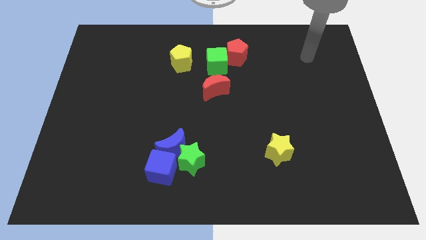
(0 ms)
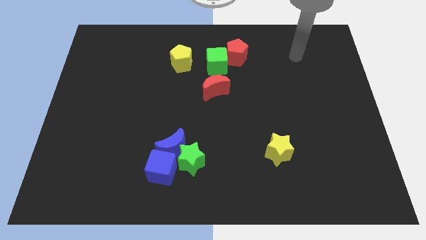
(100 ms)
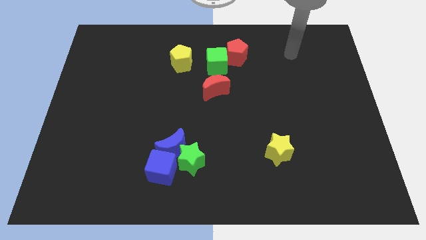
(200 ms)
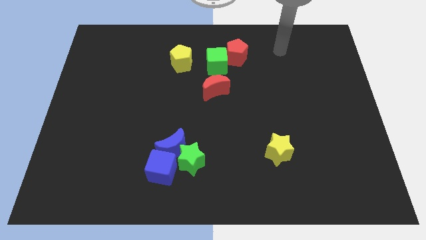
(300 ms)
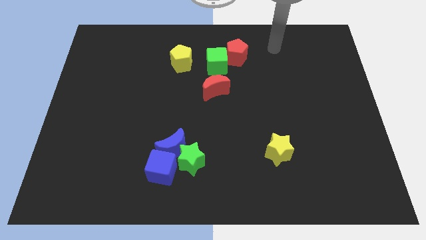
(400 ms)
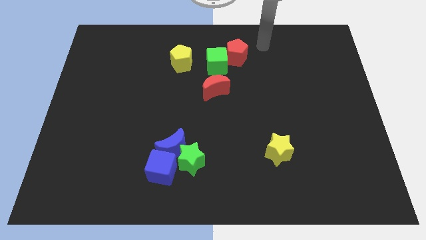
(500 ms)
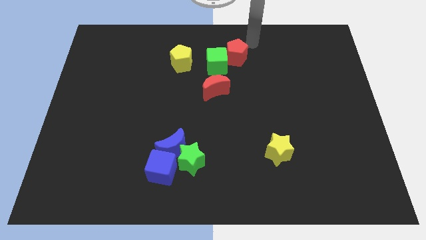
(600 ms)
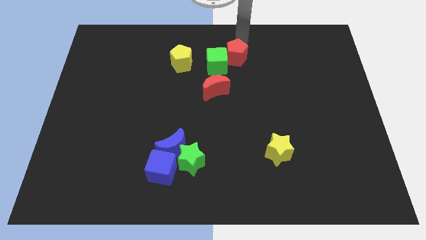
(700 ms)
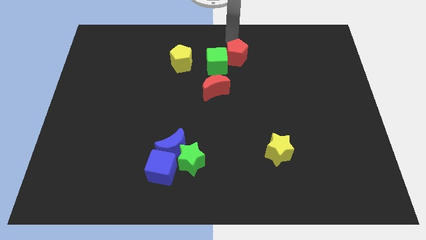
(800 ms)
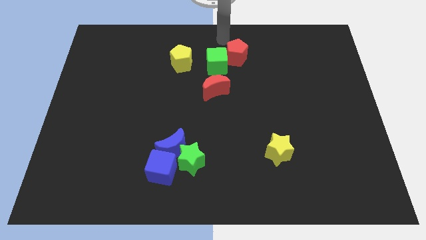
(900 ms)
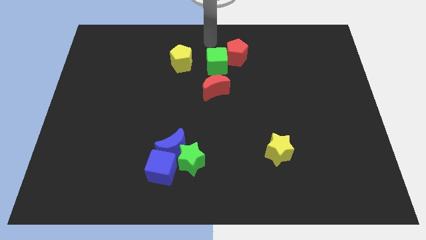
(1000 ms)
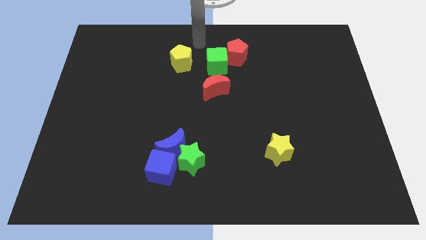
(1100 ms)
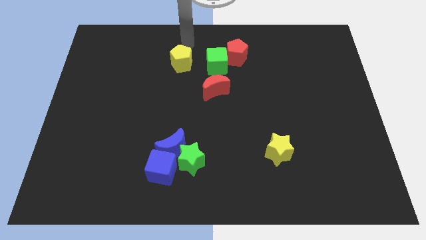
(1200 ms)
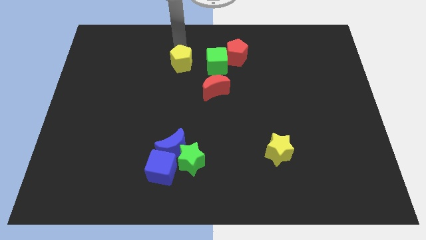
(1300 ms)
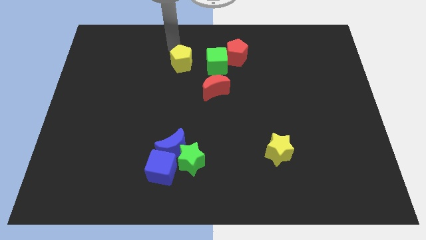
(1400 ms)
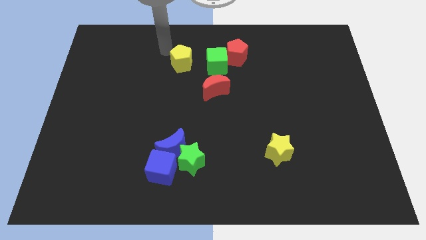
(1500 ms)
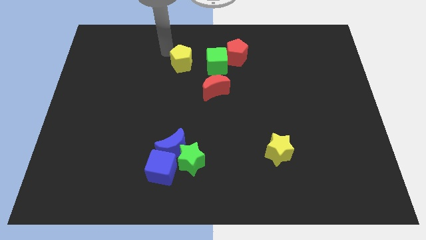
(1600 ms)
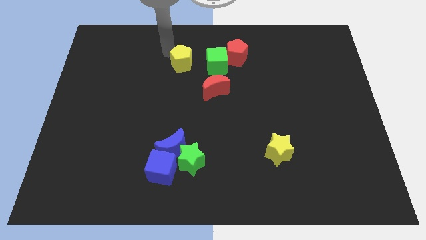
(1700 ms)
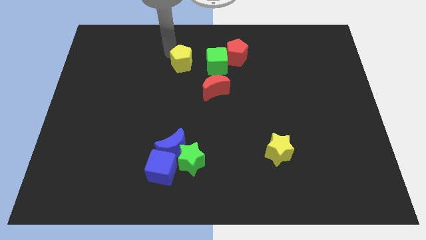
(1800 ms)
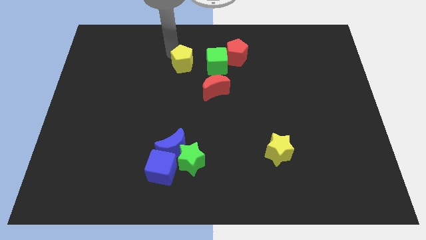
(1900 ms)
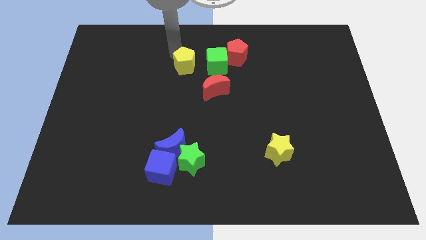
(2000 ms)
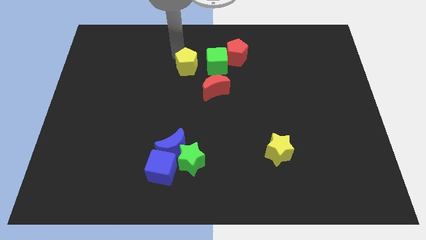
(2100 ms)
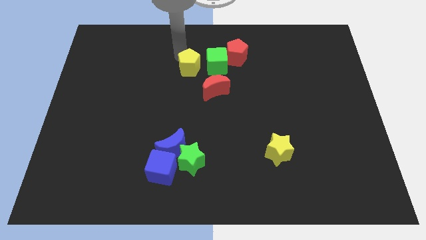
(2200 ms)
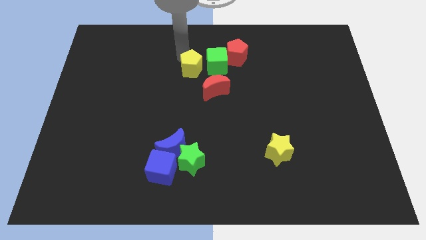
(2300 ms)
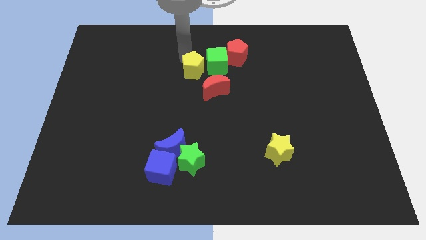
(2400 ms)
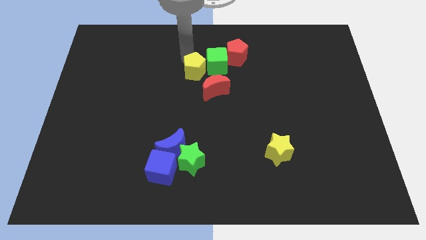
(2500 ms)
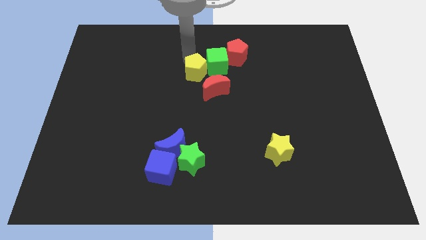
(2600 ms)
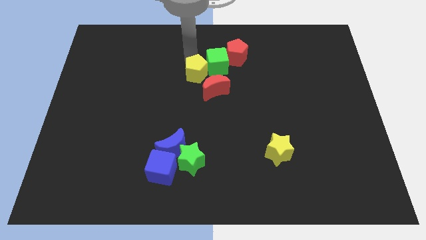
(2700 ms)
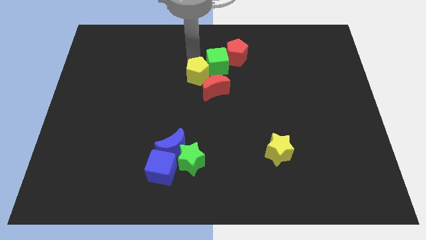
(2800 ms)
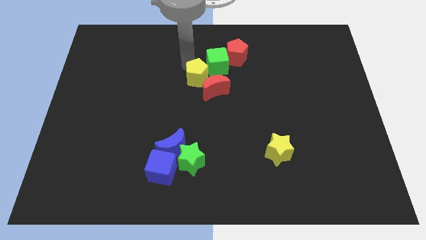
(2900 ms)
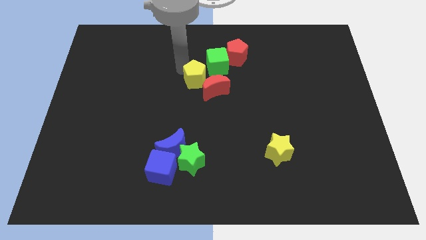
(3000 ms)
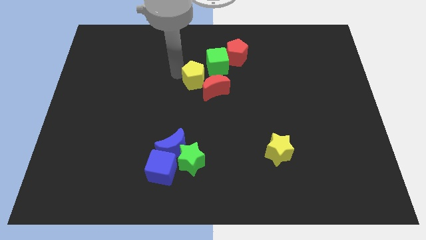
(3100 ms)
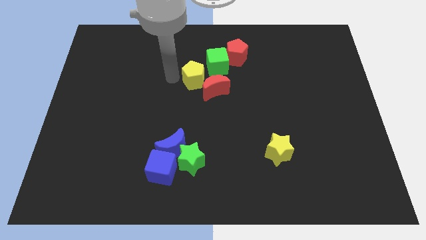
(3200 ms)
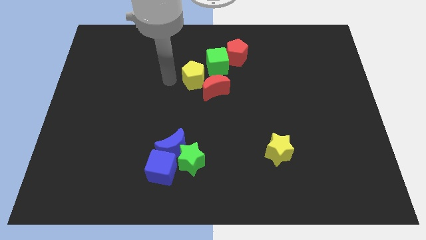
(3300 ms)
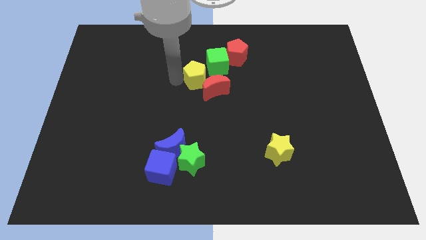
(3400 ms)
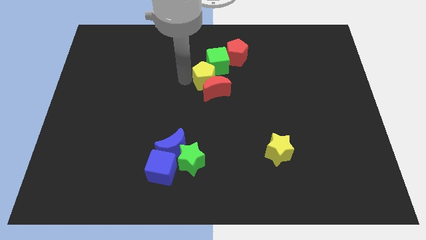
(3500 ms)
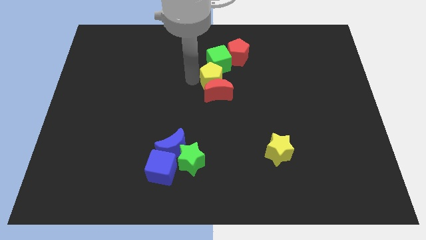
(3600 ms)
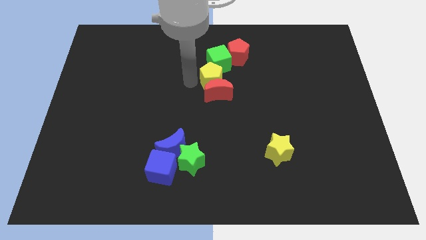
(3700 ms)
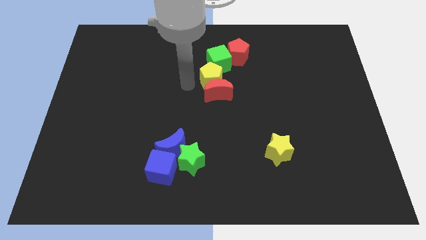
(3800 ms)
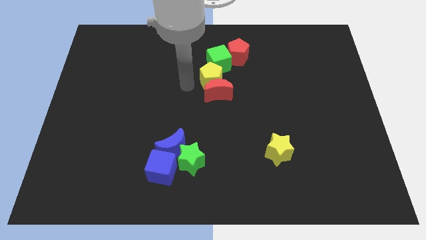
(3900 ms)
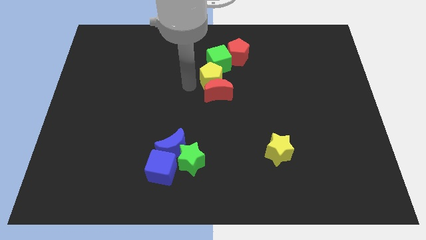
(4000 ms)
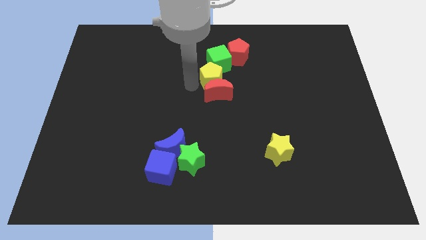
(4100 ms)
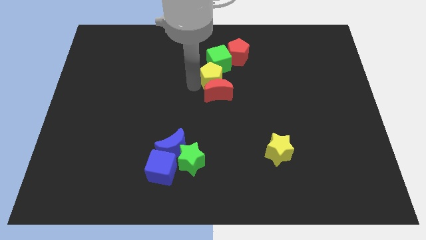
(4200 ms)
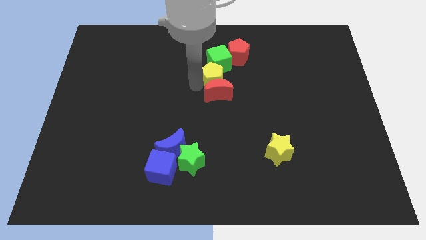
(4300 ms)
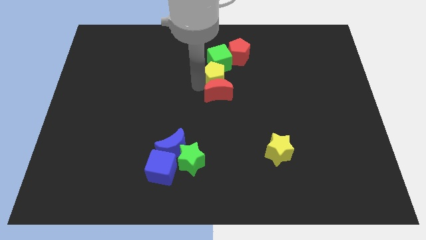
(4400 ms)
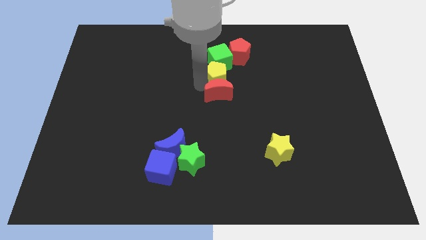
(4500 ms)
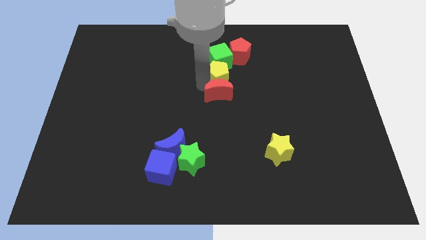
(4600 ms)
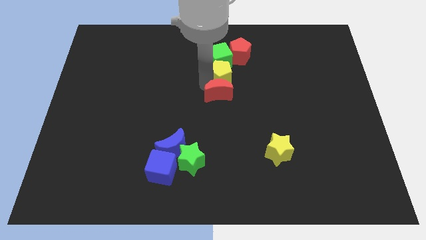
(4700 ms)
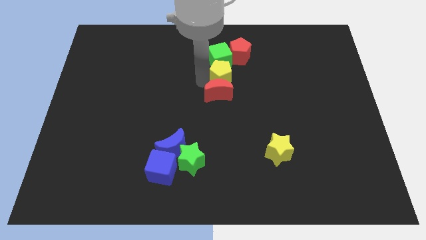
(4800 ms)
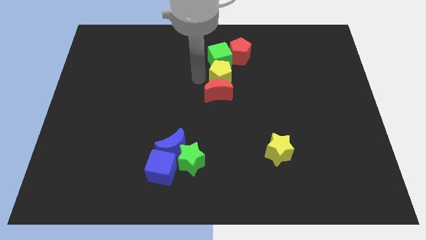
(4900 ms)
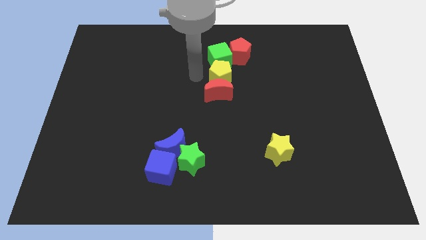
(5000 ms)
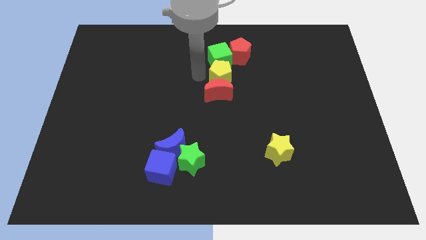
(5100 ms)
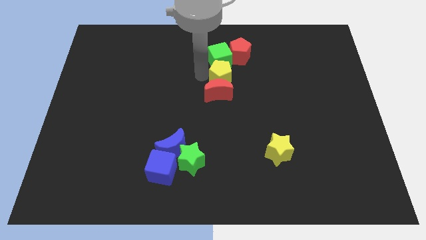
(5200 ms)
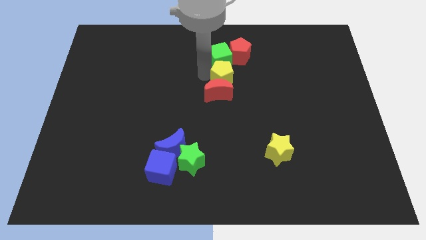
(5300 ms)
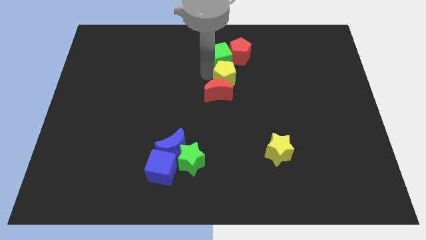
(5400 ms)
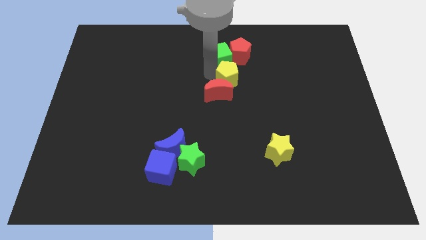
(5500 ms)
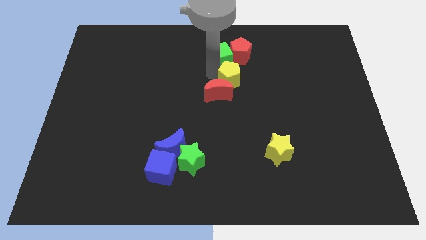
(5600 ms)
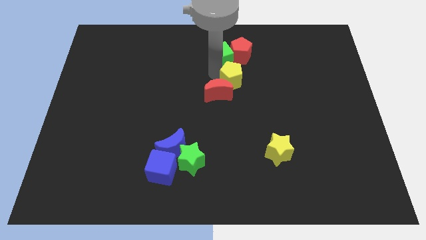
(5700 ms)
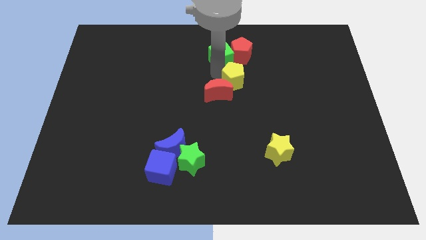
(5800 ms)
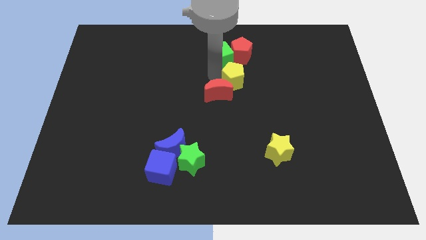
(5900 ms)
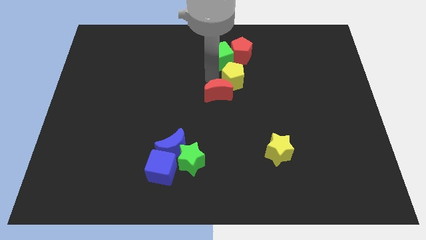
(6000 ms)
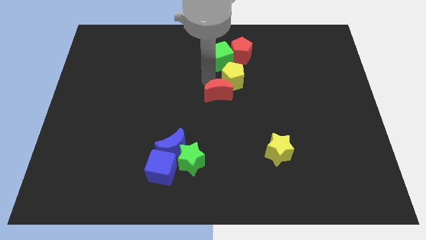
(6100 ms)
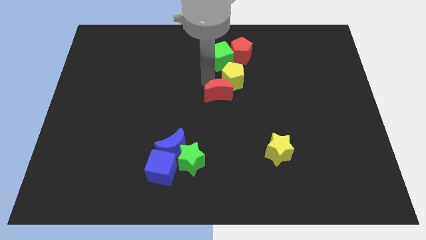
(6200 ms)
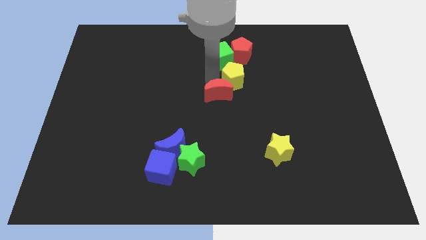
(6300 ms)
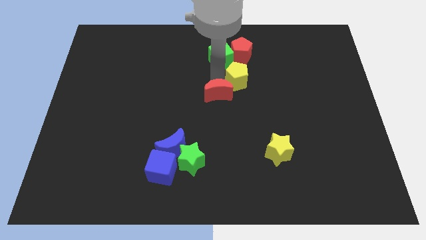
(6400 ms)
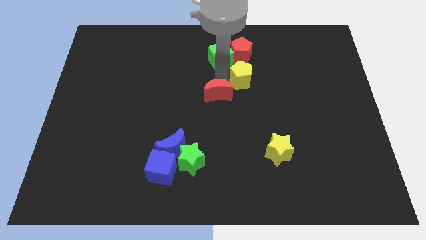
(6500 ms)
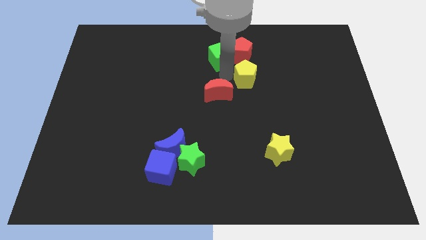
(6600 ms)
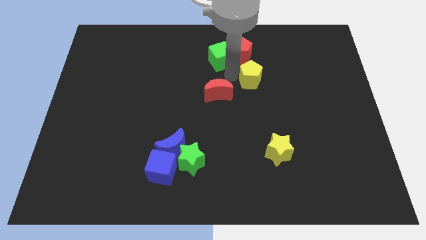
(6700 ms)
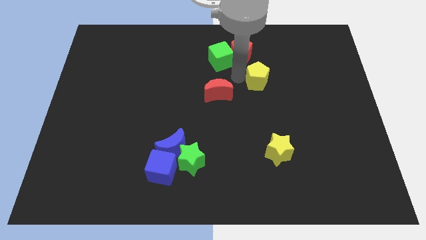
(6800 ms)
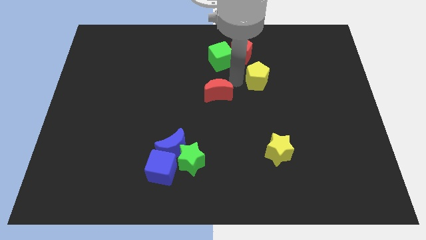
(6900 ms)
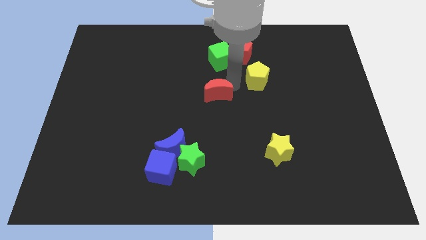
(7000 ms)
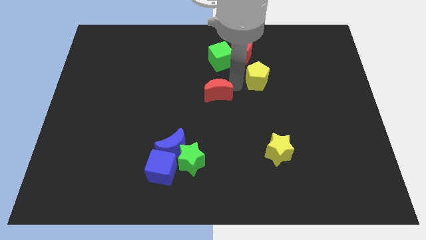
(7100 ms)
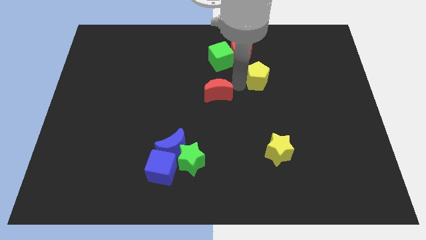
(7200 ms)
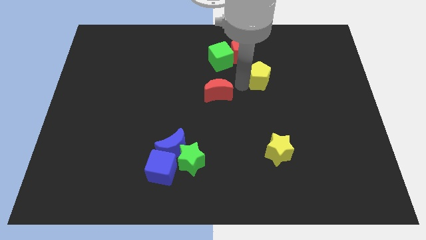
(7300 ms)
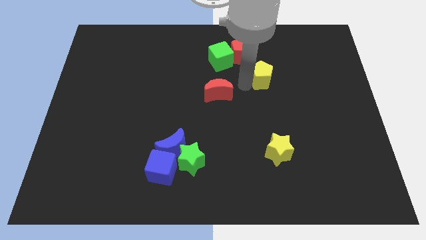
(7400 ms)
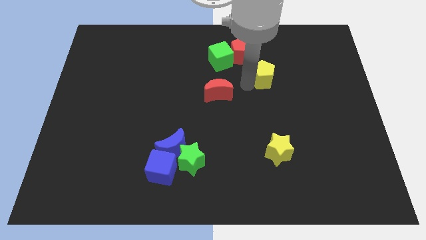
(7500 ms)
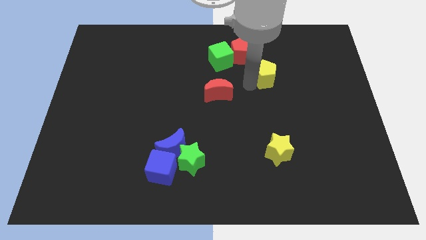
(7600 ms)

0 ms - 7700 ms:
move the yellow pentagon to the right

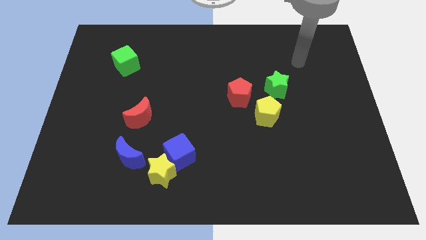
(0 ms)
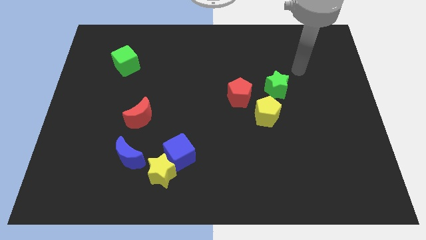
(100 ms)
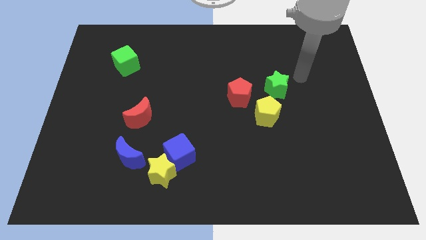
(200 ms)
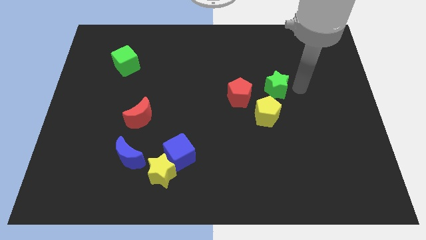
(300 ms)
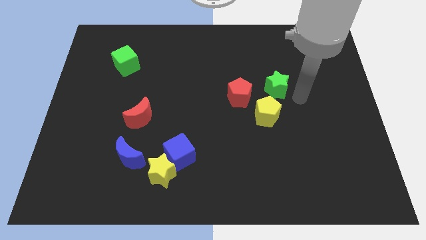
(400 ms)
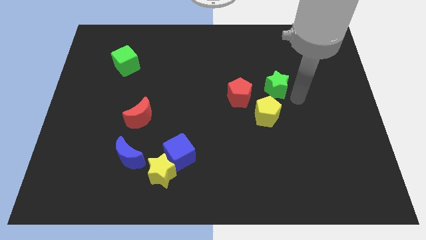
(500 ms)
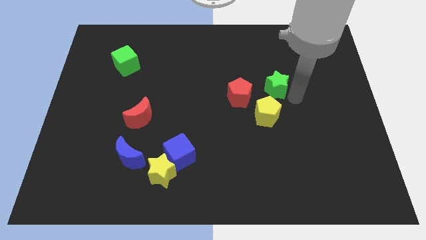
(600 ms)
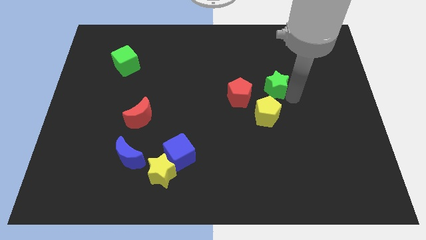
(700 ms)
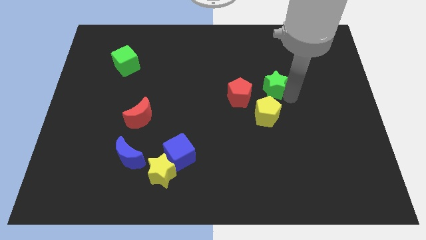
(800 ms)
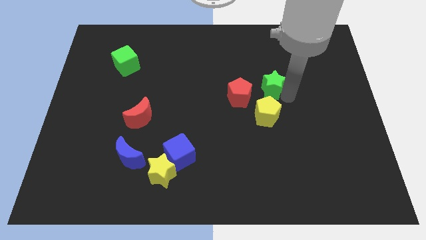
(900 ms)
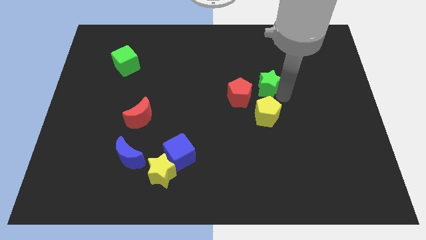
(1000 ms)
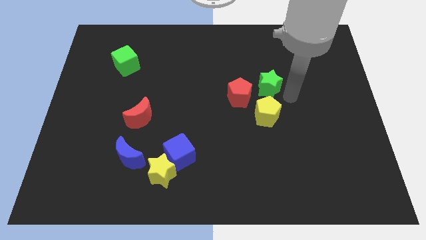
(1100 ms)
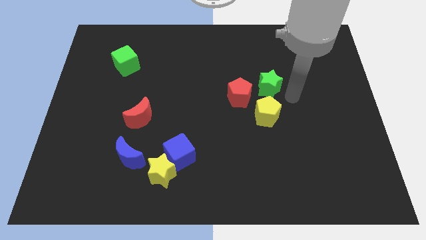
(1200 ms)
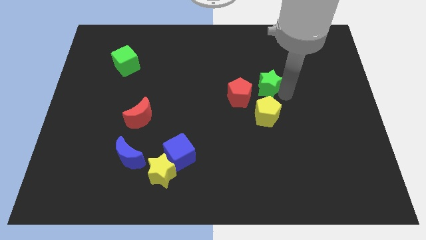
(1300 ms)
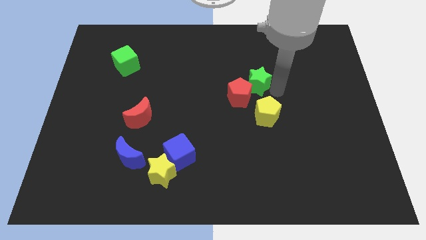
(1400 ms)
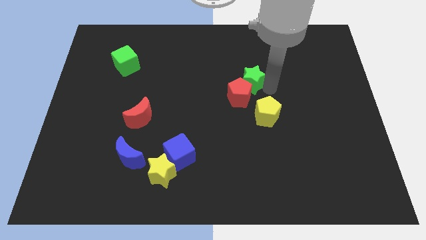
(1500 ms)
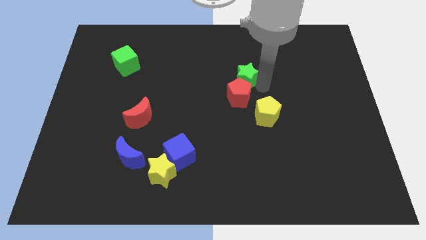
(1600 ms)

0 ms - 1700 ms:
move the green star a bit left
